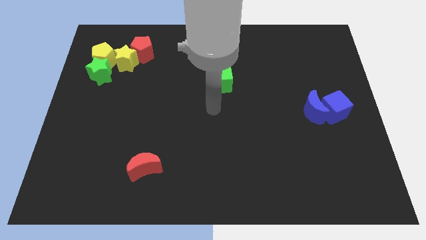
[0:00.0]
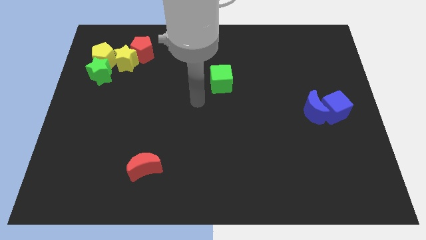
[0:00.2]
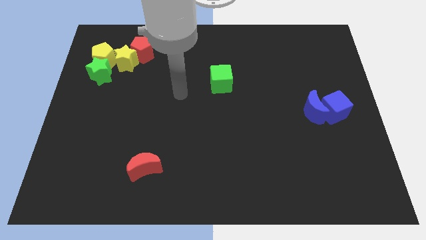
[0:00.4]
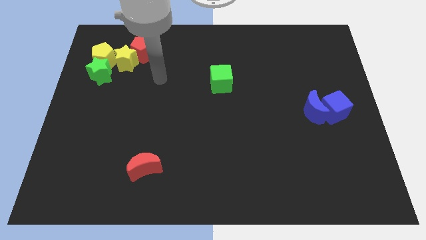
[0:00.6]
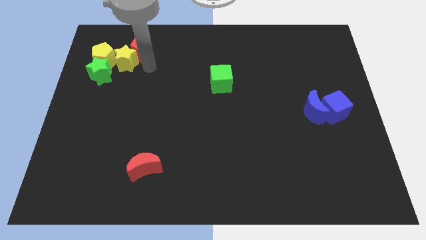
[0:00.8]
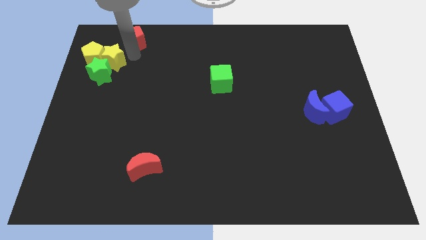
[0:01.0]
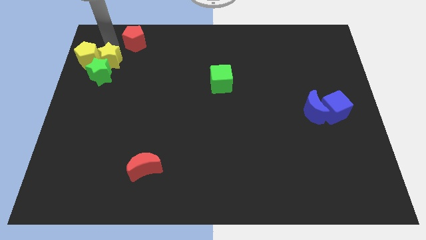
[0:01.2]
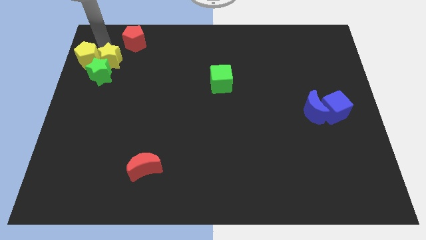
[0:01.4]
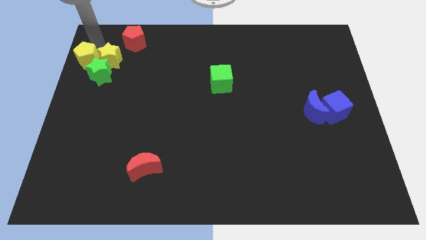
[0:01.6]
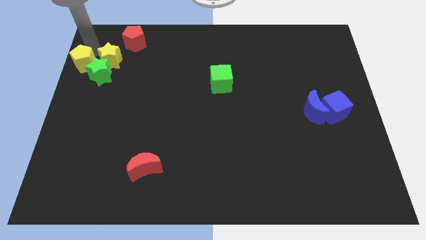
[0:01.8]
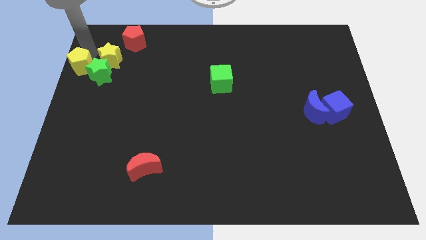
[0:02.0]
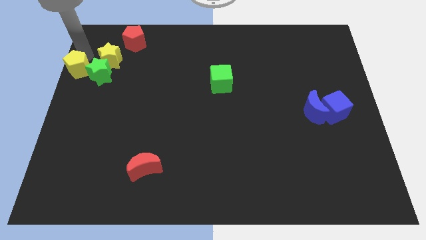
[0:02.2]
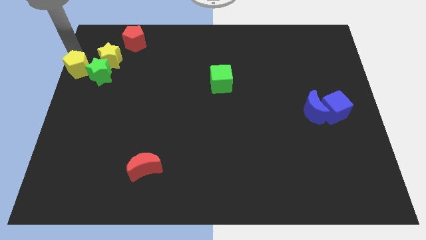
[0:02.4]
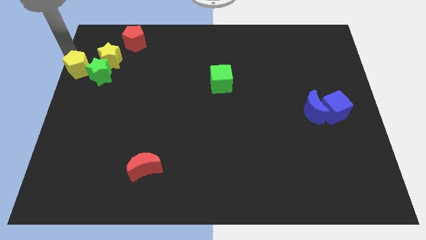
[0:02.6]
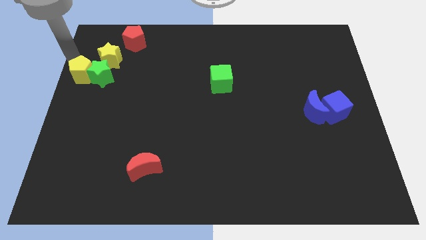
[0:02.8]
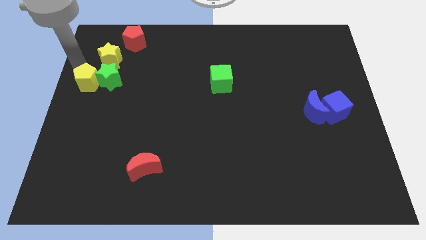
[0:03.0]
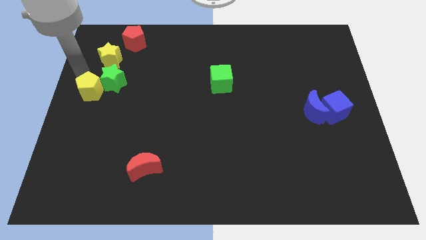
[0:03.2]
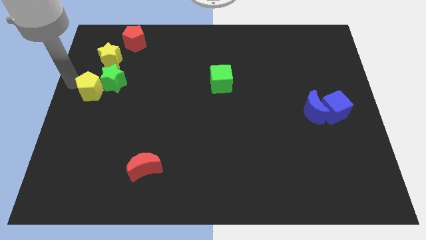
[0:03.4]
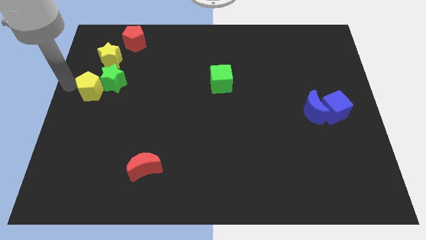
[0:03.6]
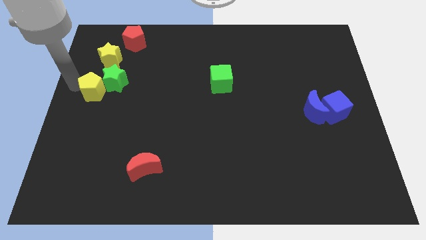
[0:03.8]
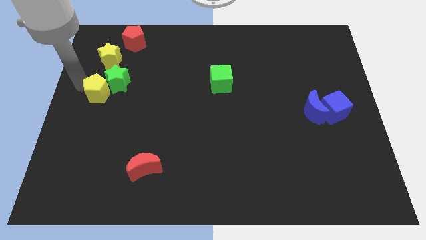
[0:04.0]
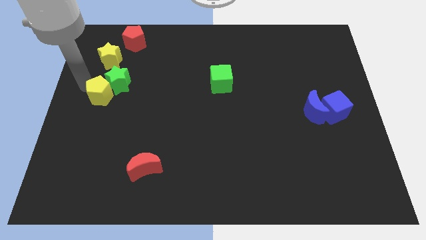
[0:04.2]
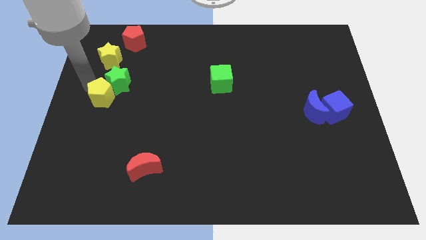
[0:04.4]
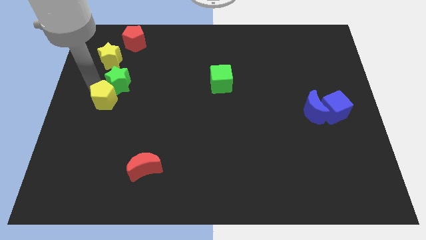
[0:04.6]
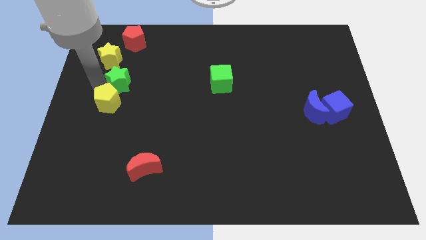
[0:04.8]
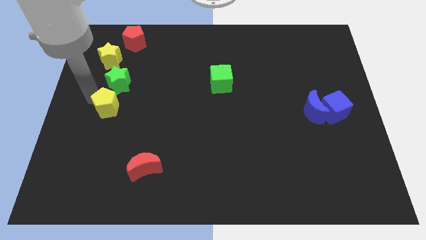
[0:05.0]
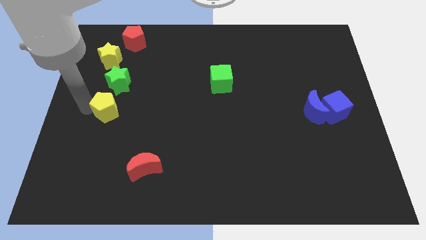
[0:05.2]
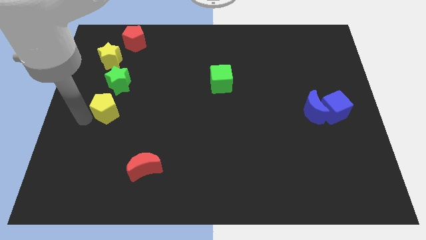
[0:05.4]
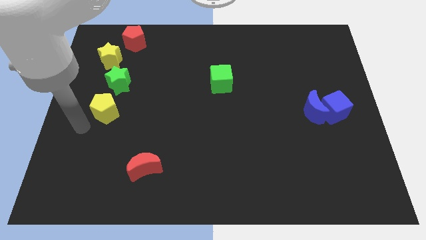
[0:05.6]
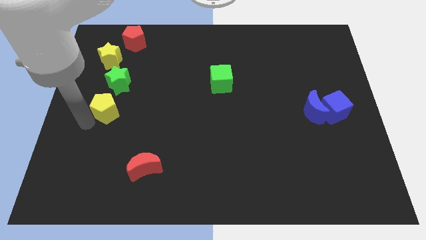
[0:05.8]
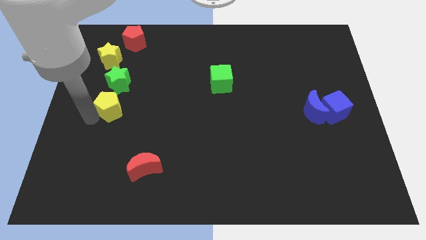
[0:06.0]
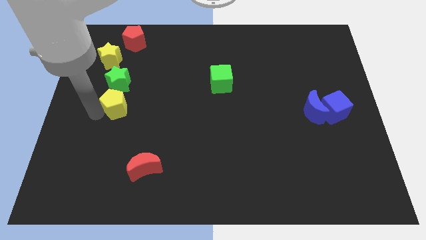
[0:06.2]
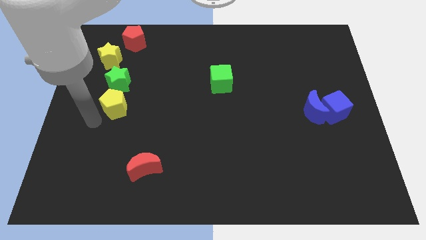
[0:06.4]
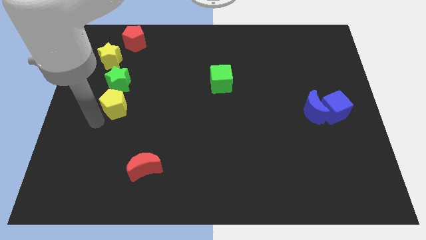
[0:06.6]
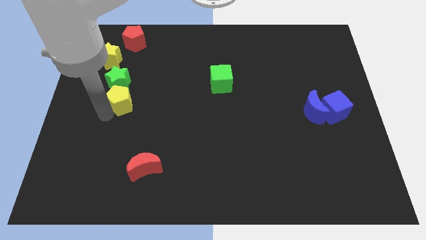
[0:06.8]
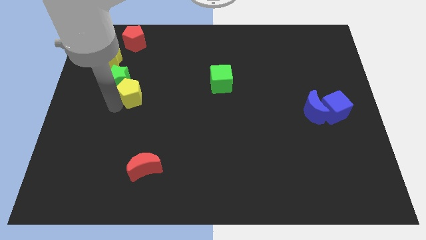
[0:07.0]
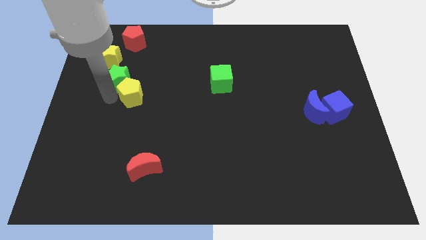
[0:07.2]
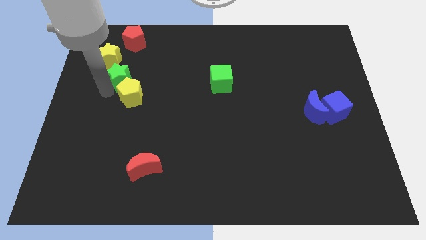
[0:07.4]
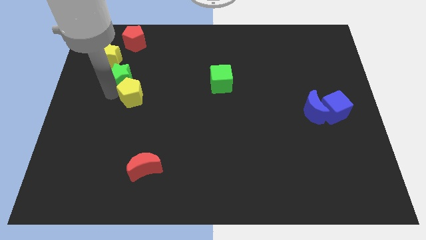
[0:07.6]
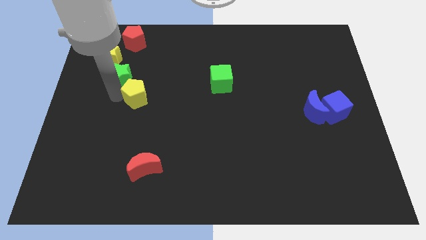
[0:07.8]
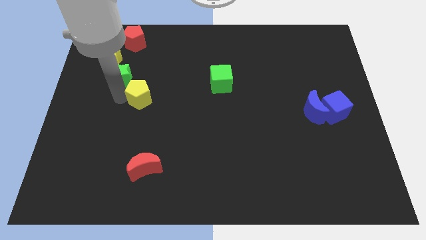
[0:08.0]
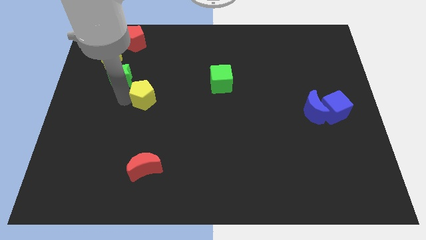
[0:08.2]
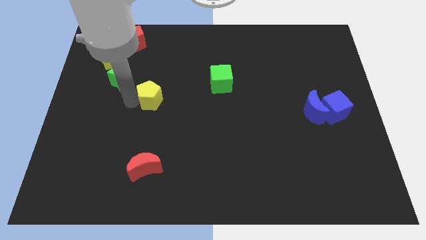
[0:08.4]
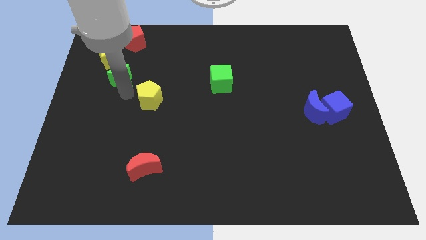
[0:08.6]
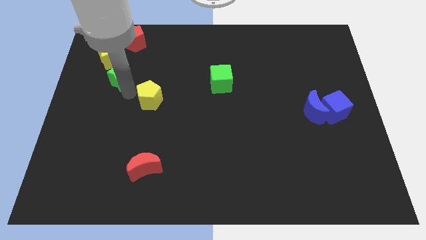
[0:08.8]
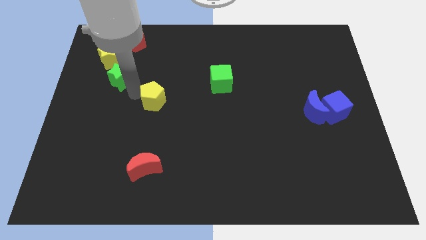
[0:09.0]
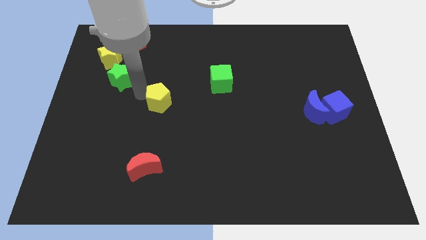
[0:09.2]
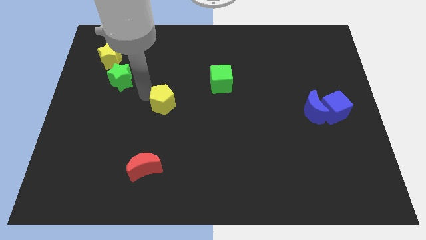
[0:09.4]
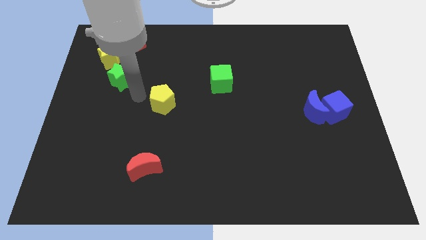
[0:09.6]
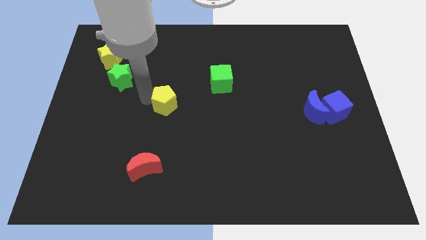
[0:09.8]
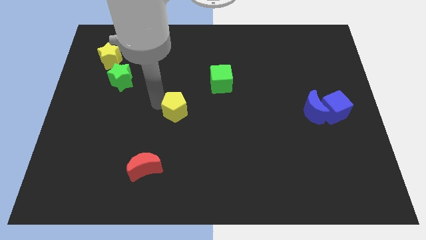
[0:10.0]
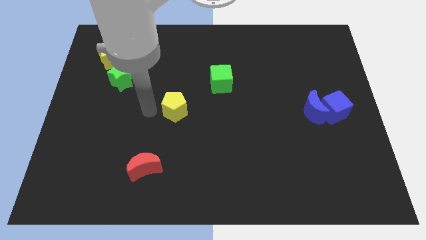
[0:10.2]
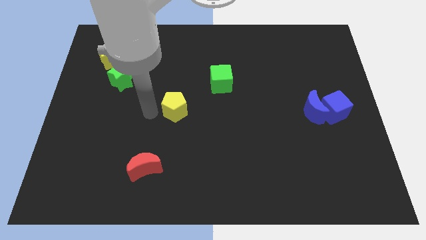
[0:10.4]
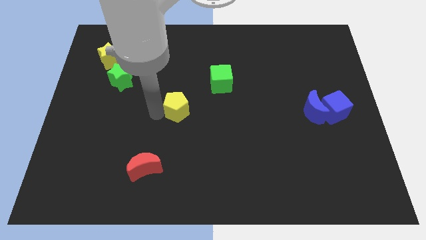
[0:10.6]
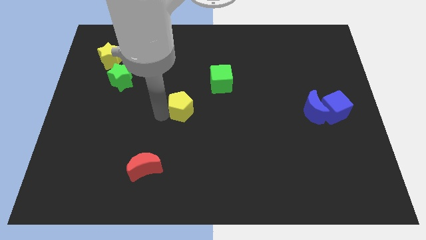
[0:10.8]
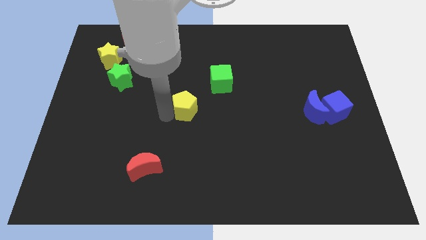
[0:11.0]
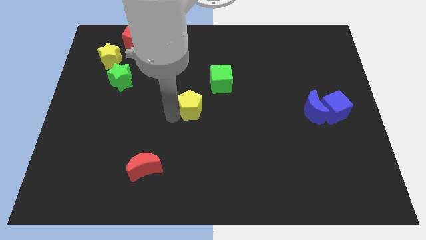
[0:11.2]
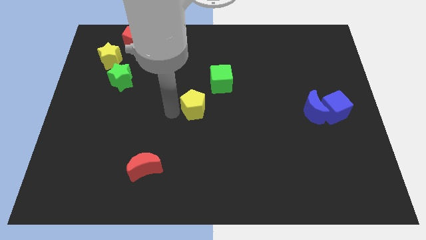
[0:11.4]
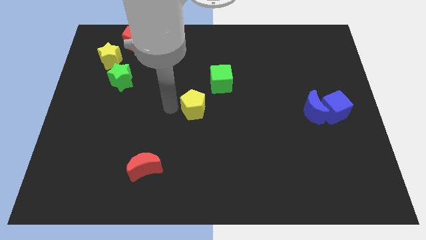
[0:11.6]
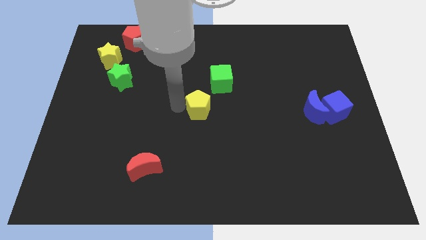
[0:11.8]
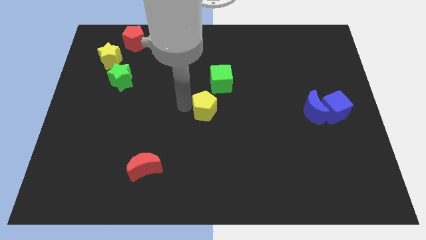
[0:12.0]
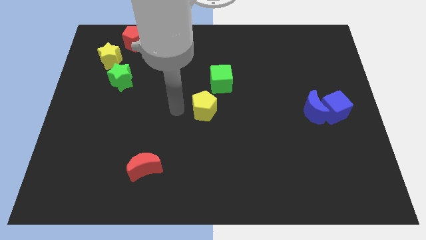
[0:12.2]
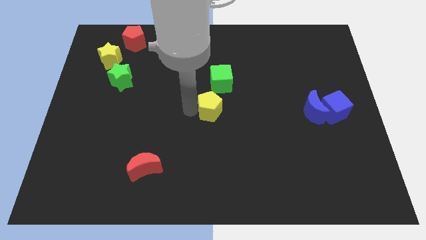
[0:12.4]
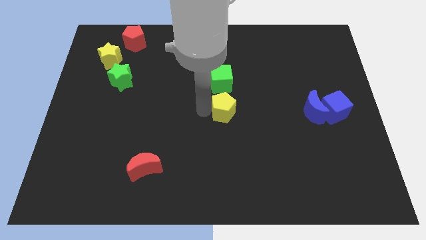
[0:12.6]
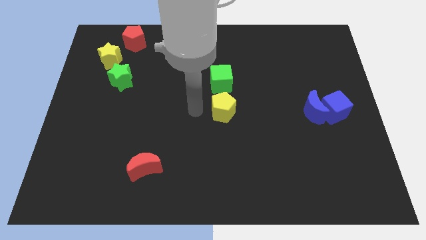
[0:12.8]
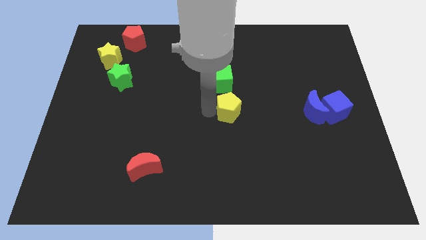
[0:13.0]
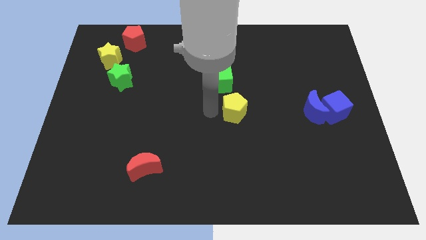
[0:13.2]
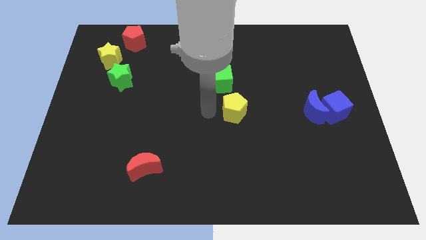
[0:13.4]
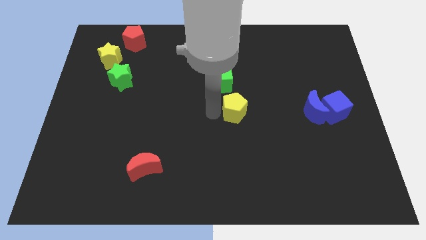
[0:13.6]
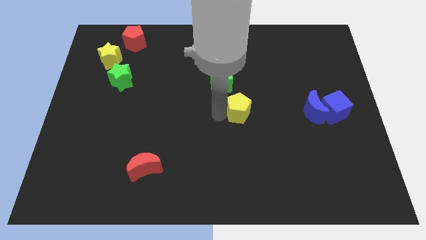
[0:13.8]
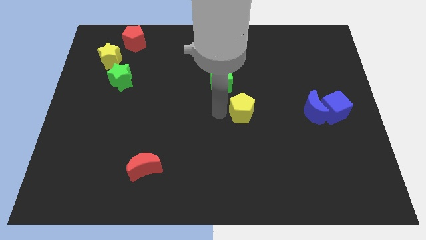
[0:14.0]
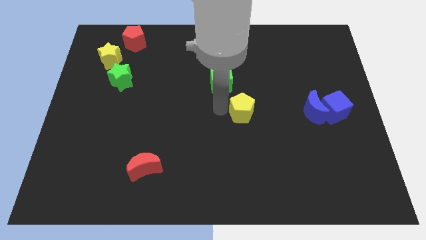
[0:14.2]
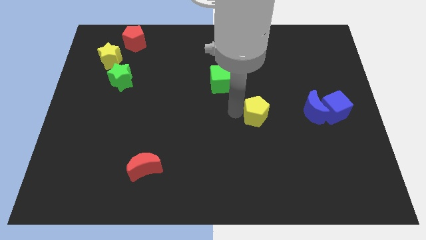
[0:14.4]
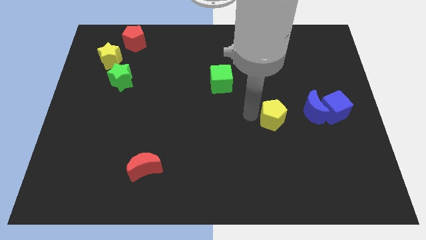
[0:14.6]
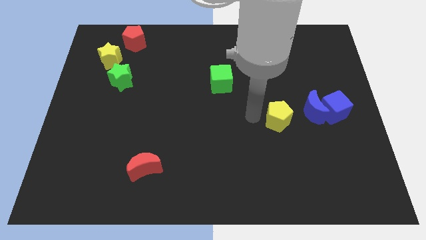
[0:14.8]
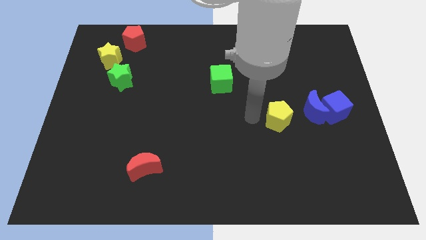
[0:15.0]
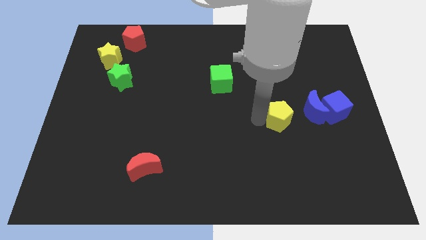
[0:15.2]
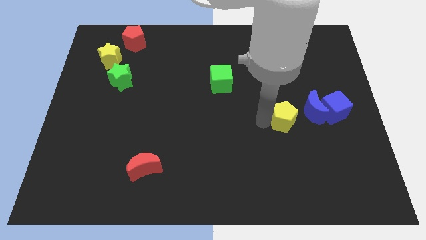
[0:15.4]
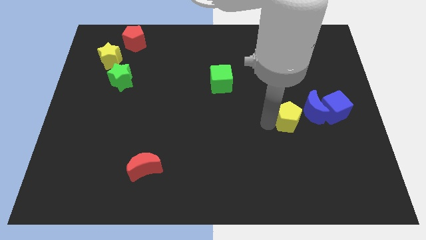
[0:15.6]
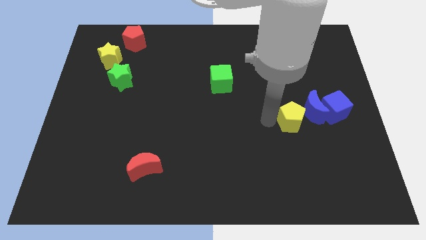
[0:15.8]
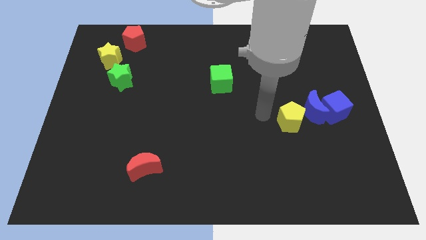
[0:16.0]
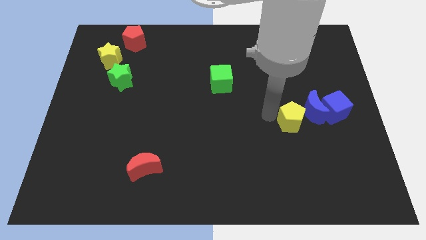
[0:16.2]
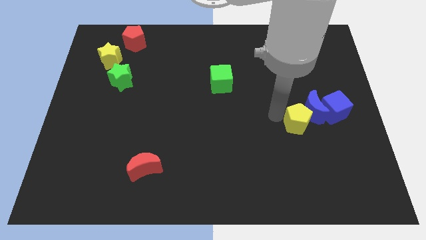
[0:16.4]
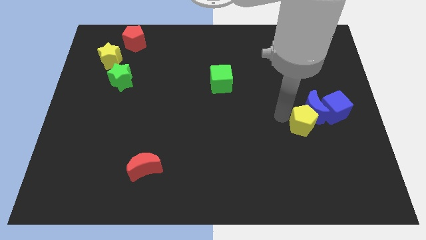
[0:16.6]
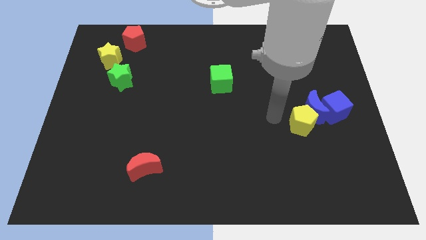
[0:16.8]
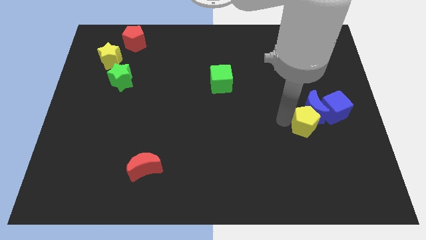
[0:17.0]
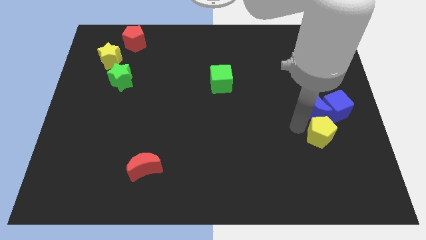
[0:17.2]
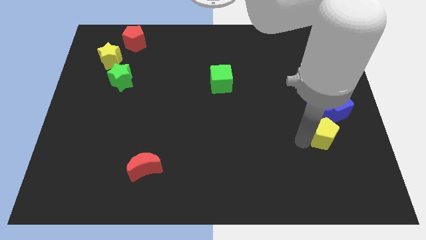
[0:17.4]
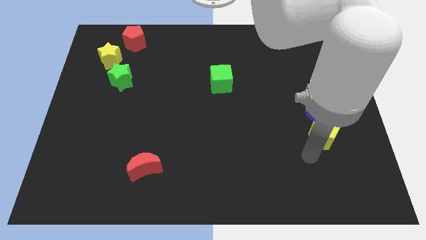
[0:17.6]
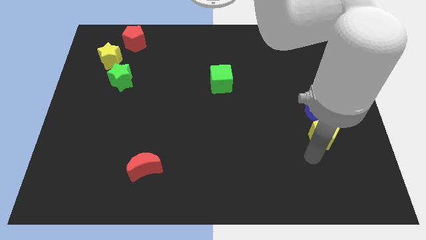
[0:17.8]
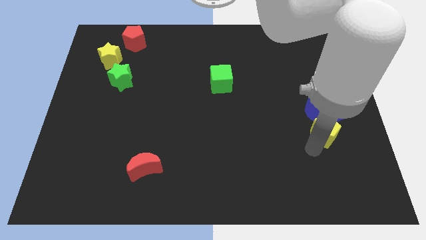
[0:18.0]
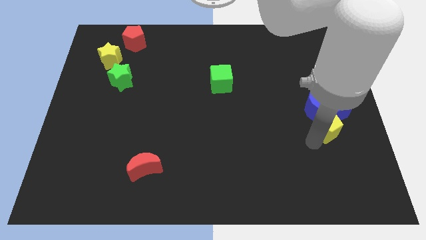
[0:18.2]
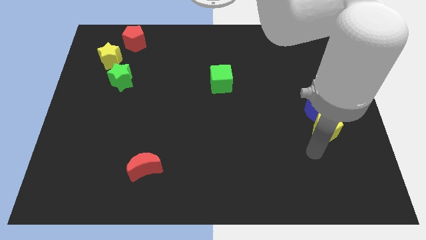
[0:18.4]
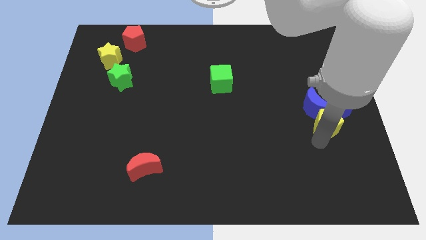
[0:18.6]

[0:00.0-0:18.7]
push the yellow pentagon close to the blue cube
